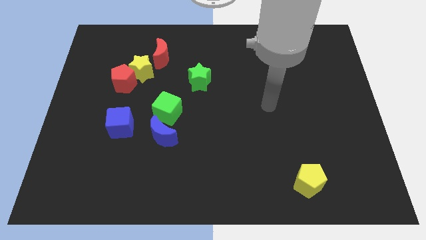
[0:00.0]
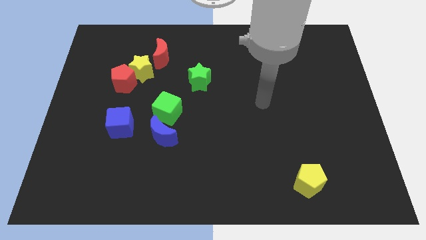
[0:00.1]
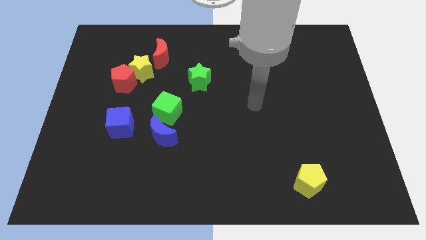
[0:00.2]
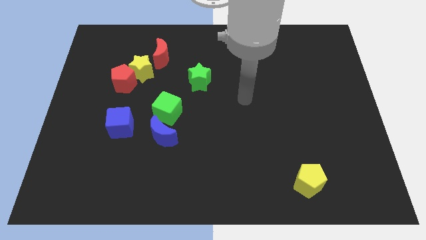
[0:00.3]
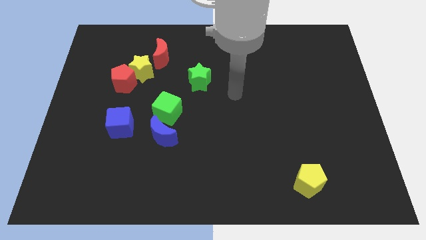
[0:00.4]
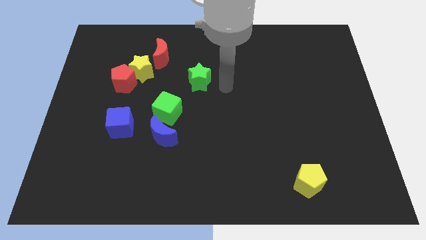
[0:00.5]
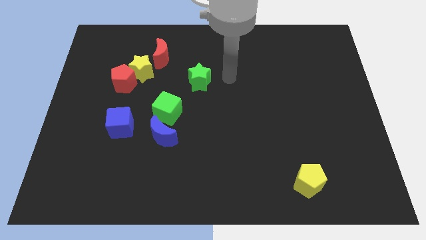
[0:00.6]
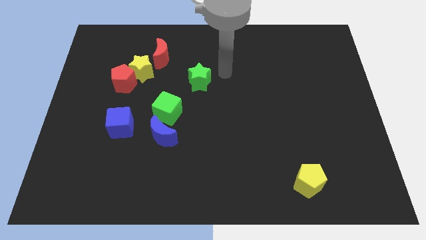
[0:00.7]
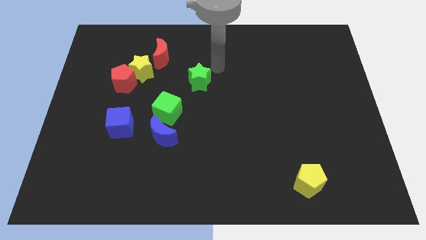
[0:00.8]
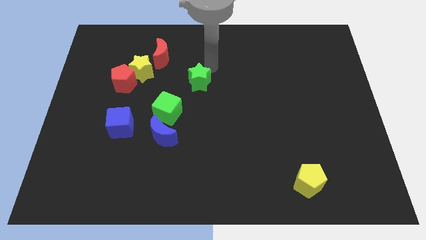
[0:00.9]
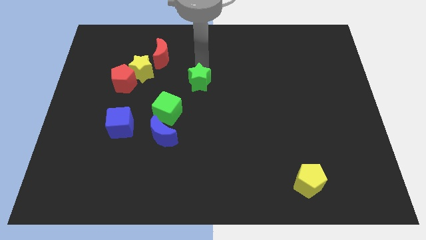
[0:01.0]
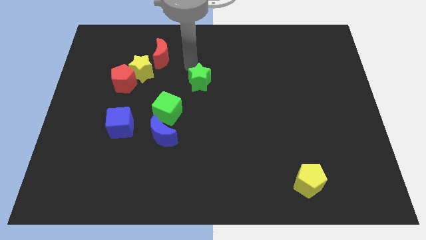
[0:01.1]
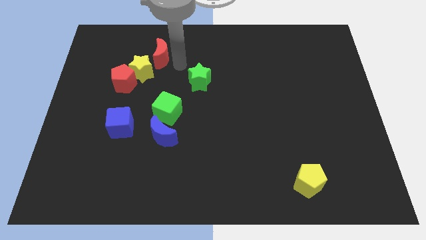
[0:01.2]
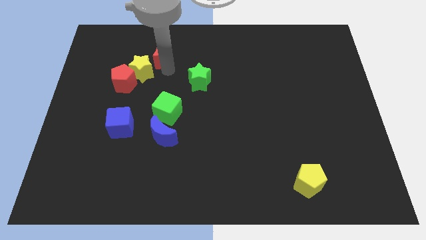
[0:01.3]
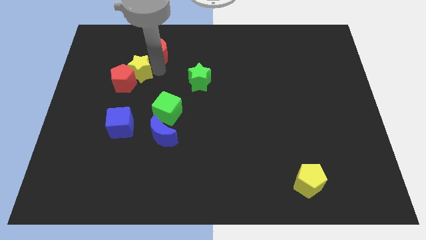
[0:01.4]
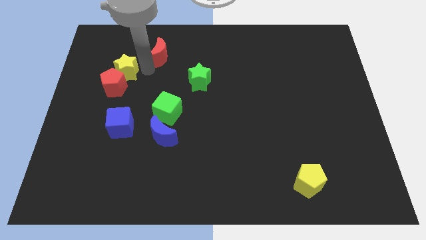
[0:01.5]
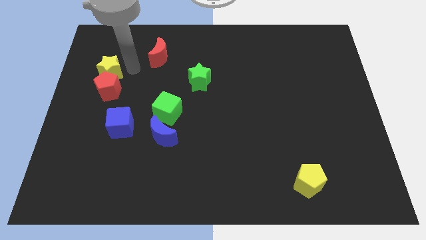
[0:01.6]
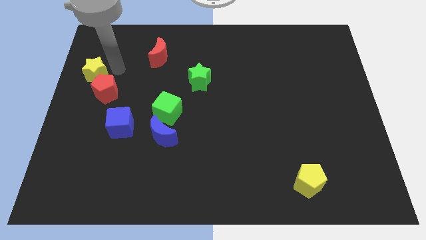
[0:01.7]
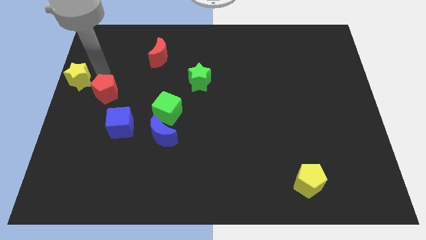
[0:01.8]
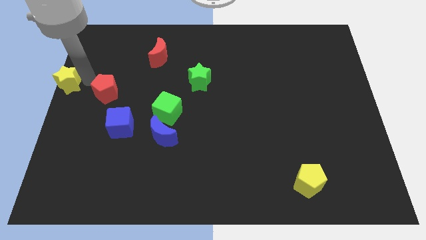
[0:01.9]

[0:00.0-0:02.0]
pull the red pentagon apart from the yellow star

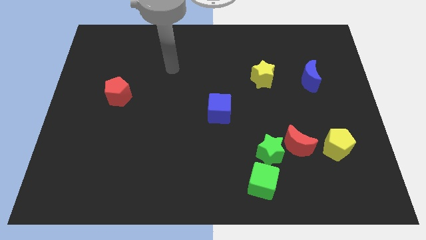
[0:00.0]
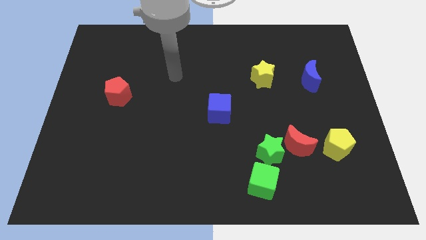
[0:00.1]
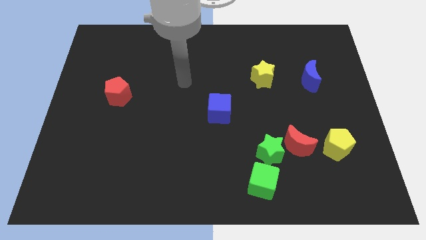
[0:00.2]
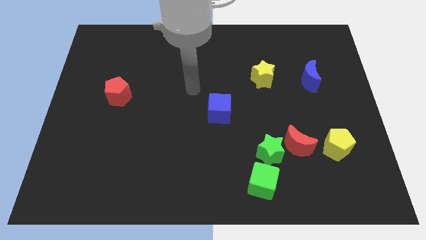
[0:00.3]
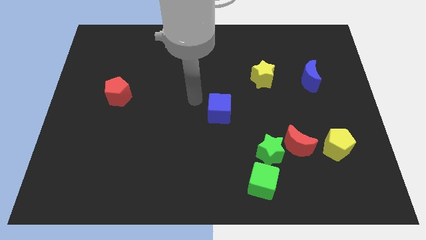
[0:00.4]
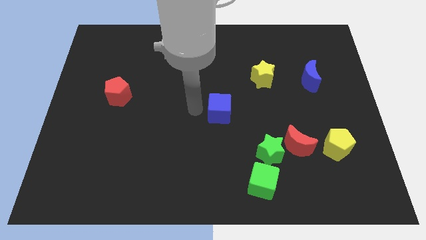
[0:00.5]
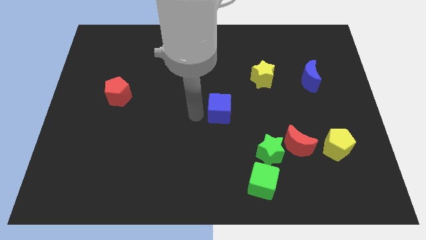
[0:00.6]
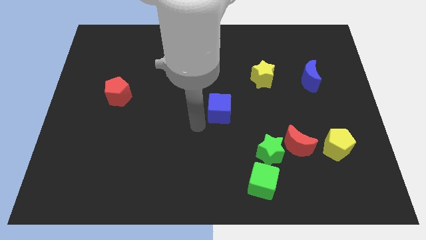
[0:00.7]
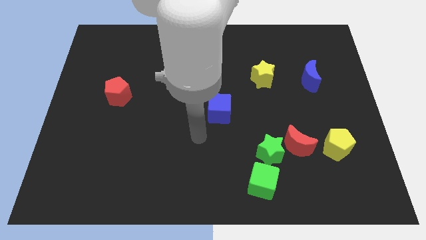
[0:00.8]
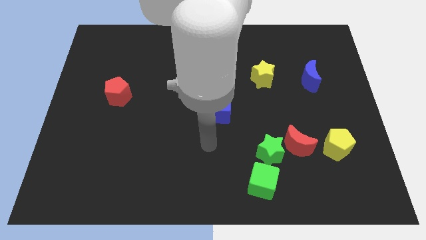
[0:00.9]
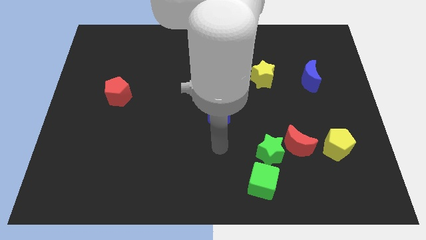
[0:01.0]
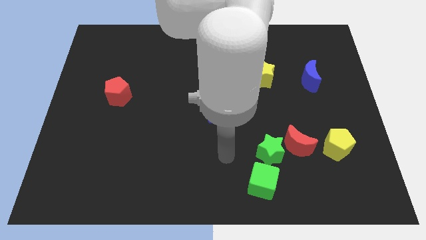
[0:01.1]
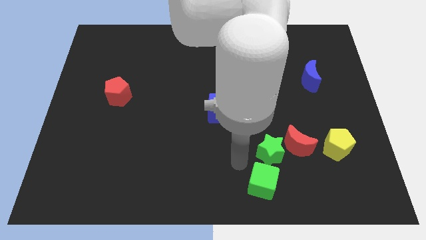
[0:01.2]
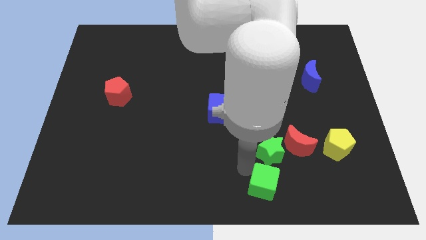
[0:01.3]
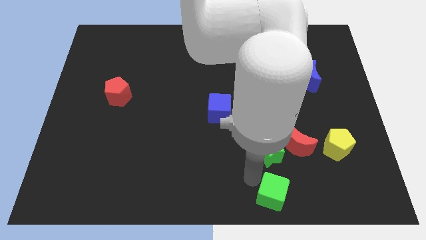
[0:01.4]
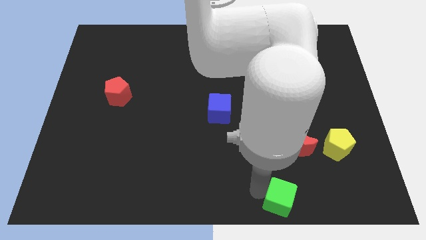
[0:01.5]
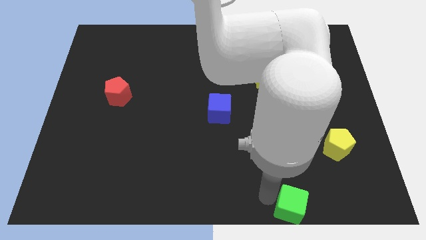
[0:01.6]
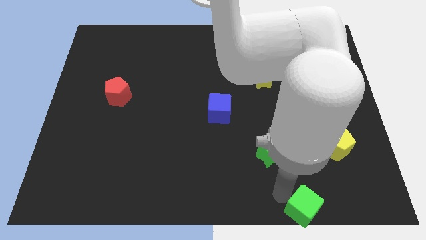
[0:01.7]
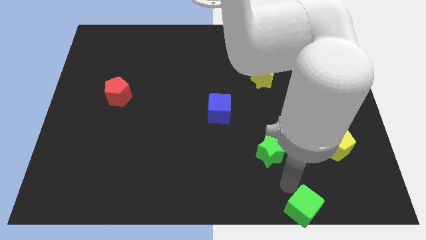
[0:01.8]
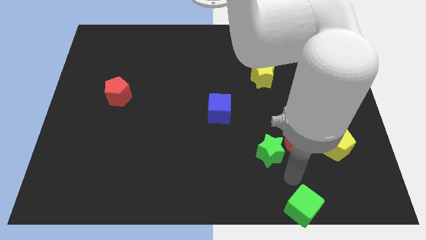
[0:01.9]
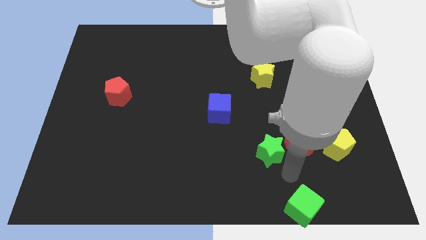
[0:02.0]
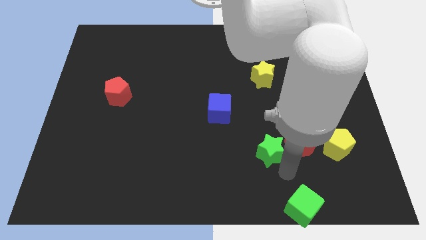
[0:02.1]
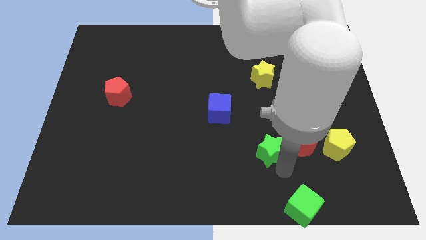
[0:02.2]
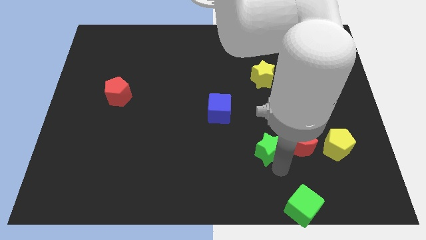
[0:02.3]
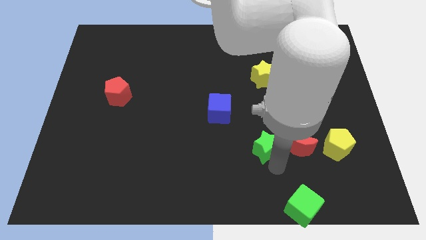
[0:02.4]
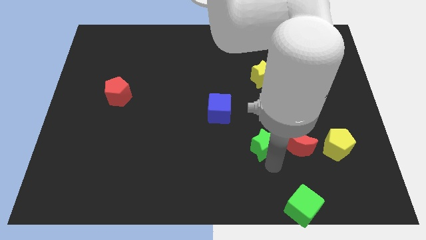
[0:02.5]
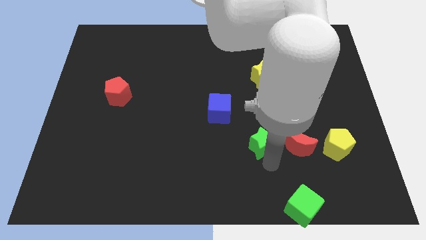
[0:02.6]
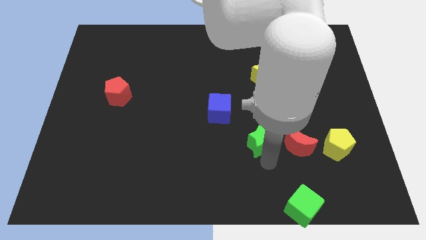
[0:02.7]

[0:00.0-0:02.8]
separate the green star from the red moon and green cube

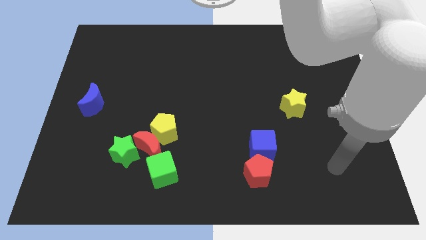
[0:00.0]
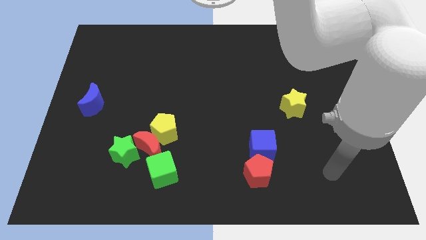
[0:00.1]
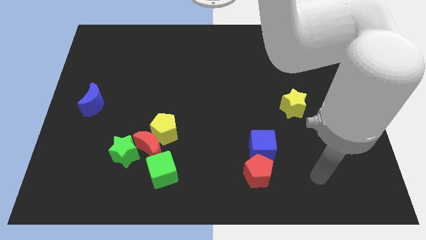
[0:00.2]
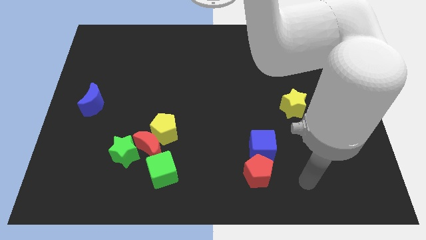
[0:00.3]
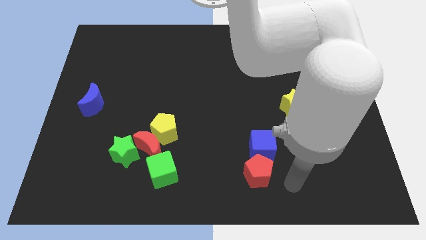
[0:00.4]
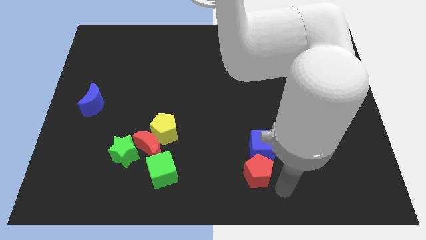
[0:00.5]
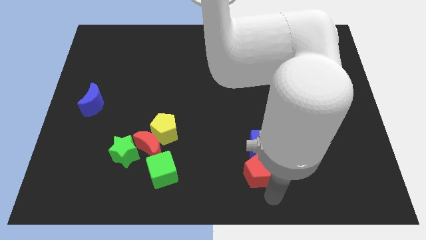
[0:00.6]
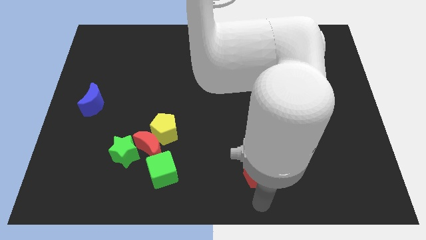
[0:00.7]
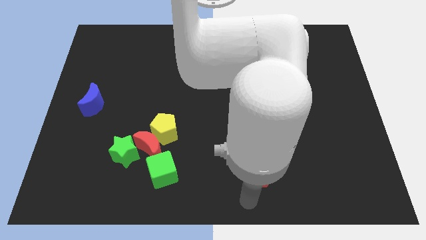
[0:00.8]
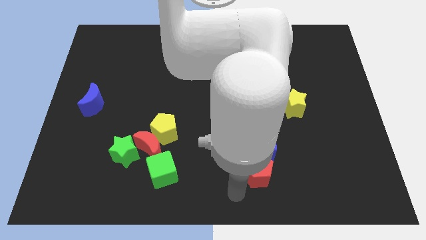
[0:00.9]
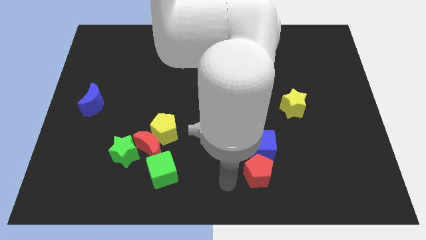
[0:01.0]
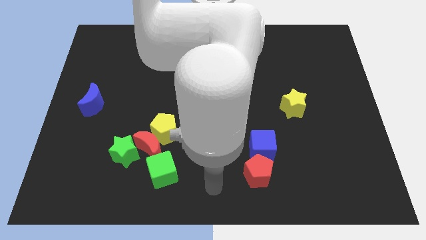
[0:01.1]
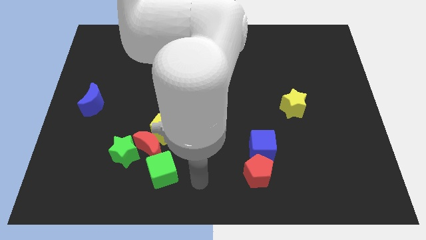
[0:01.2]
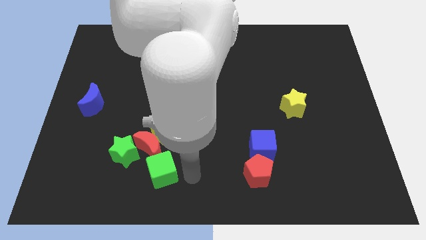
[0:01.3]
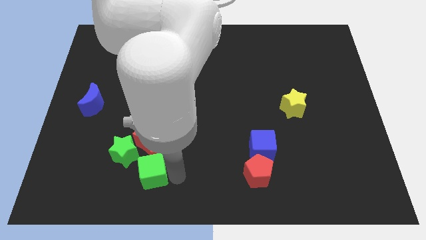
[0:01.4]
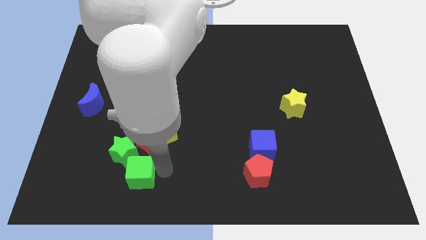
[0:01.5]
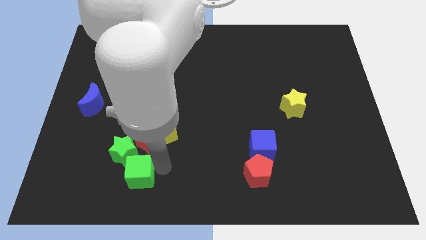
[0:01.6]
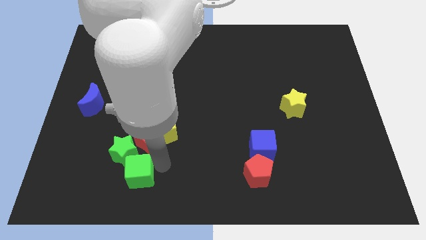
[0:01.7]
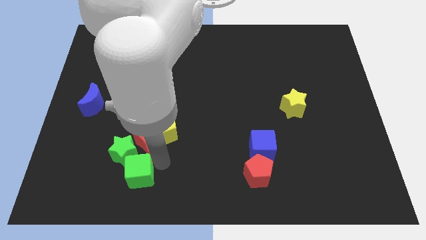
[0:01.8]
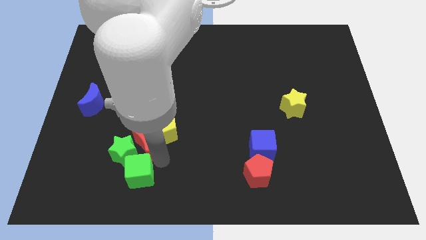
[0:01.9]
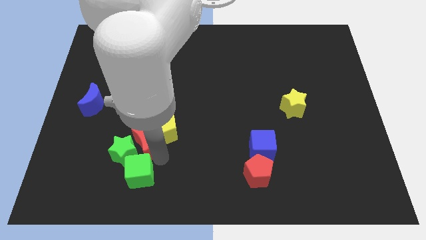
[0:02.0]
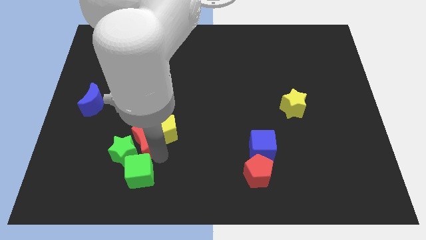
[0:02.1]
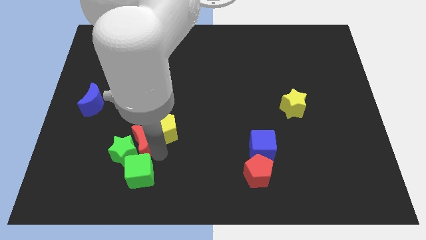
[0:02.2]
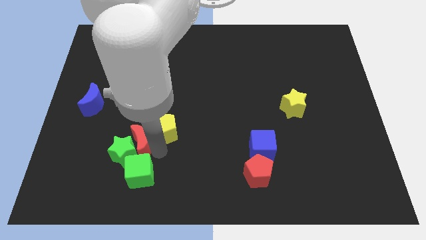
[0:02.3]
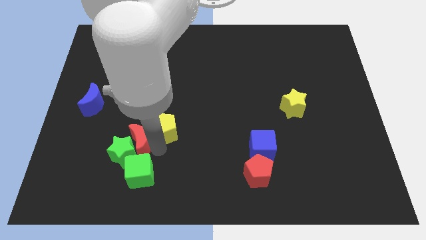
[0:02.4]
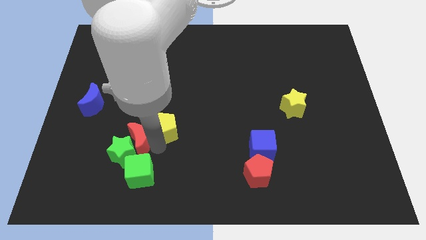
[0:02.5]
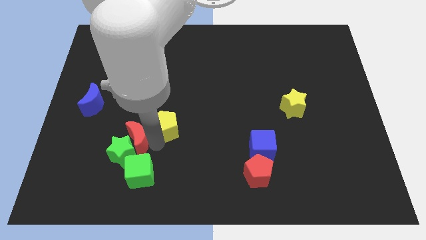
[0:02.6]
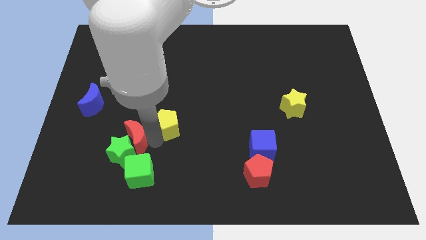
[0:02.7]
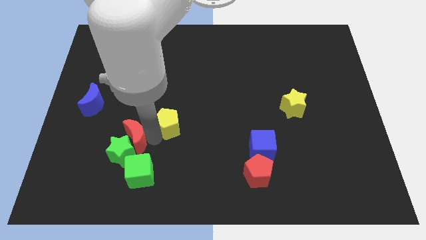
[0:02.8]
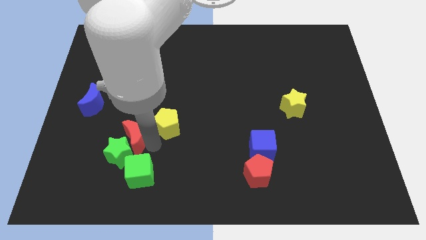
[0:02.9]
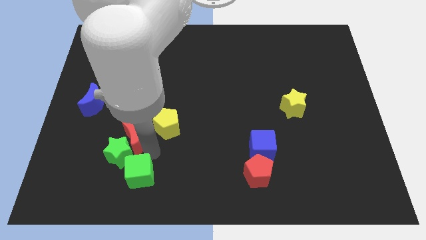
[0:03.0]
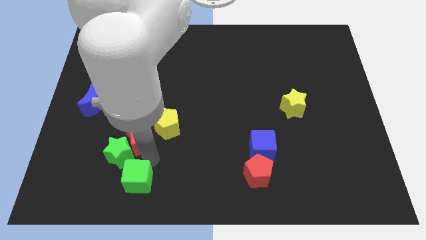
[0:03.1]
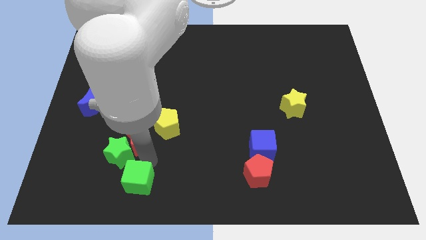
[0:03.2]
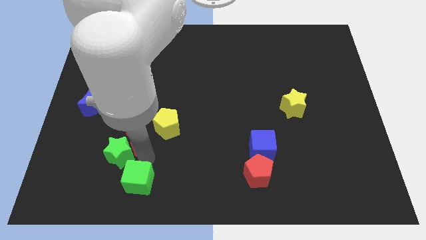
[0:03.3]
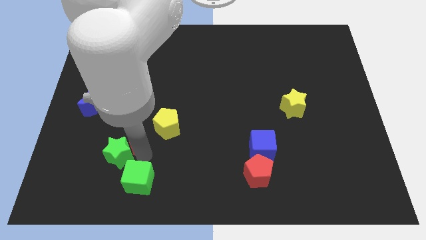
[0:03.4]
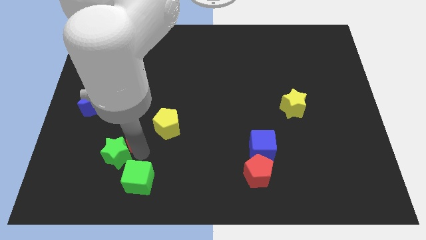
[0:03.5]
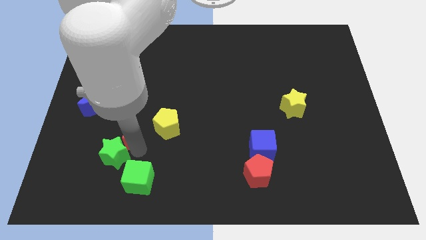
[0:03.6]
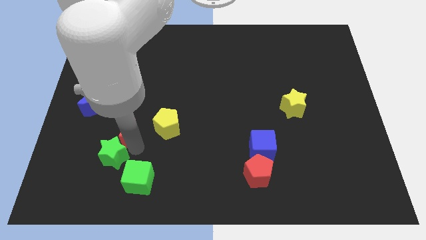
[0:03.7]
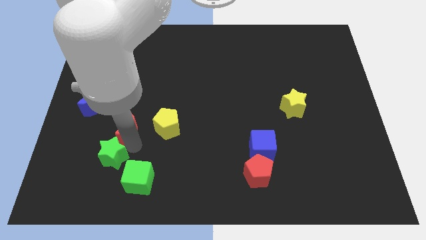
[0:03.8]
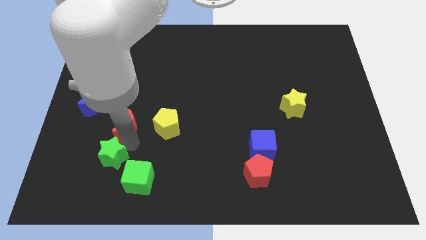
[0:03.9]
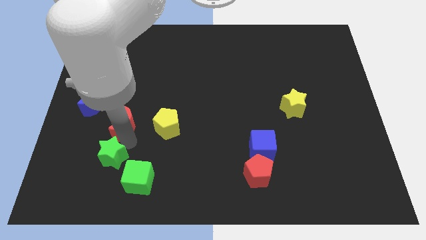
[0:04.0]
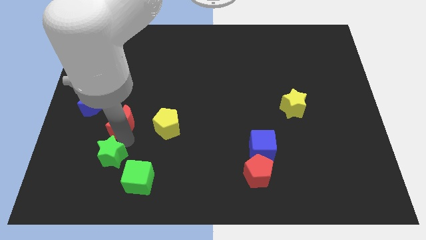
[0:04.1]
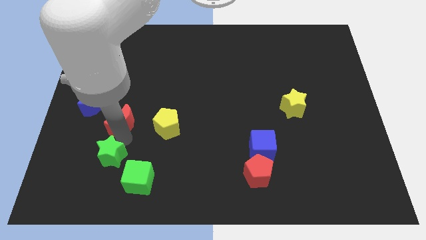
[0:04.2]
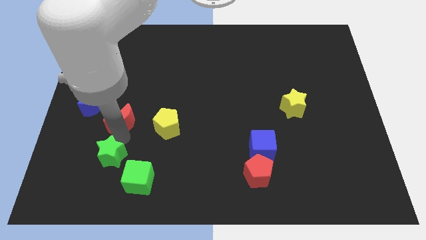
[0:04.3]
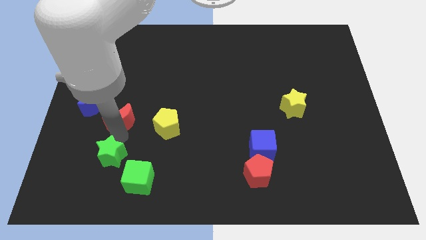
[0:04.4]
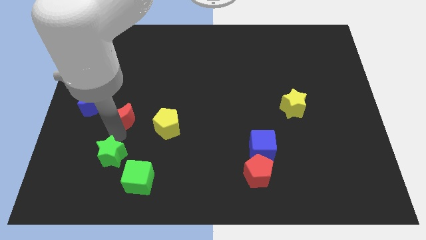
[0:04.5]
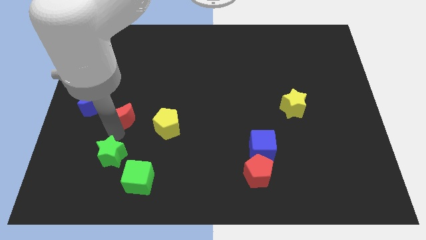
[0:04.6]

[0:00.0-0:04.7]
move the red moon away from the yellow pentagon, green star, and green cube
